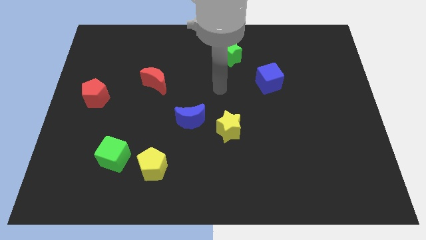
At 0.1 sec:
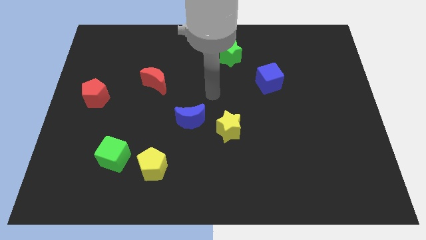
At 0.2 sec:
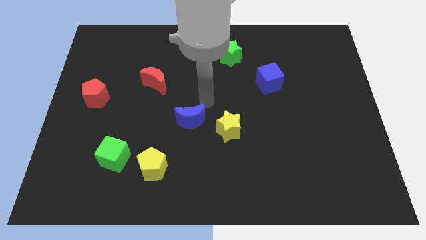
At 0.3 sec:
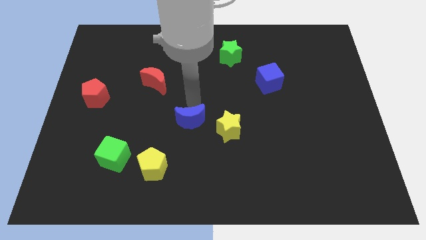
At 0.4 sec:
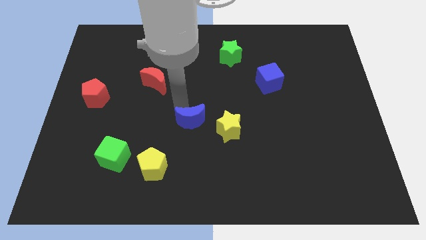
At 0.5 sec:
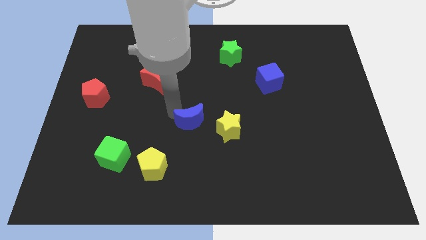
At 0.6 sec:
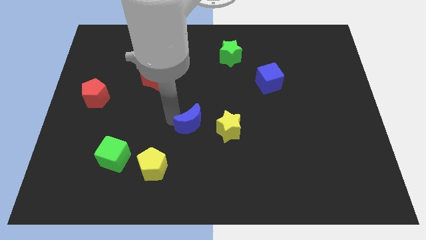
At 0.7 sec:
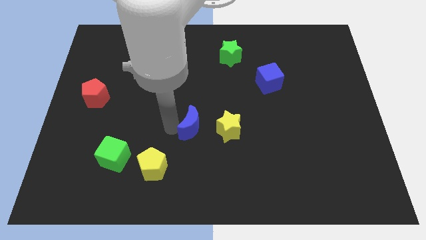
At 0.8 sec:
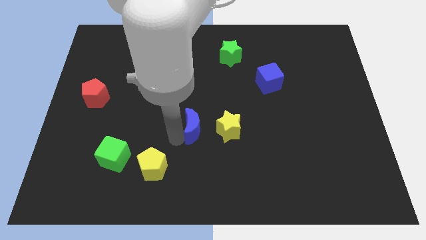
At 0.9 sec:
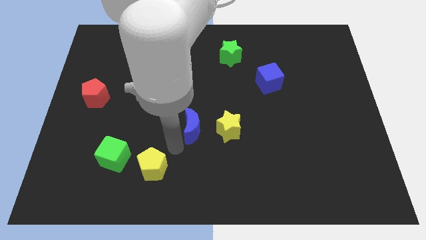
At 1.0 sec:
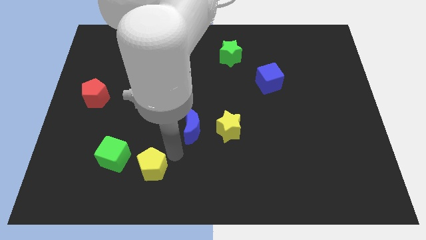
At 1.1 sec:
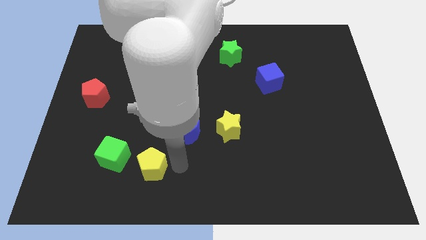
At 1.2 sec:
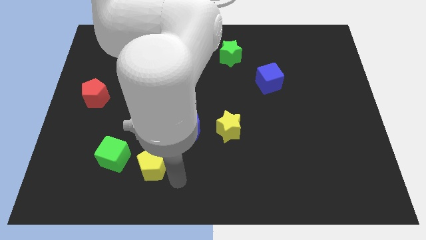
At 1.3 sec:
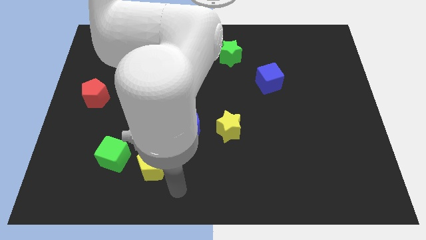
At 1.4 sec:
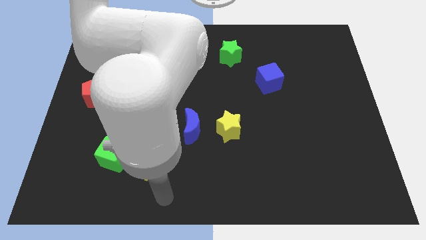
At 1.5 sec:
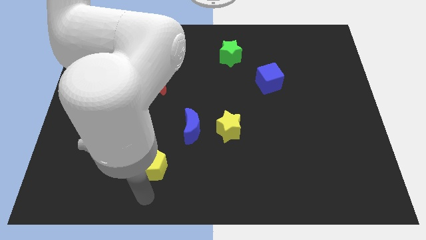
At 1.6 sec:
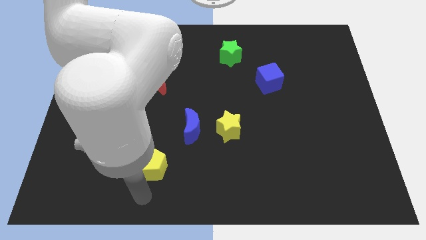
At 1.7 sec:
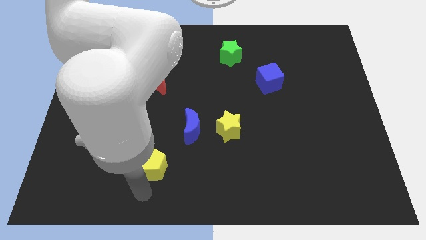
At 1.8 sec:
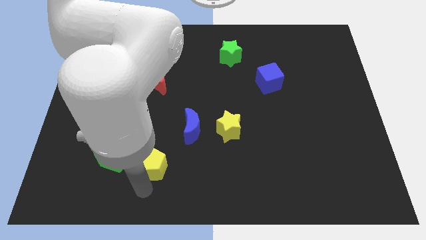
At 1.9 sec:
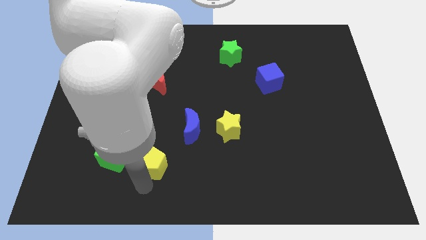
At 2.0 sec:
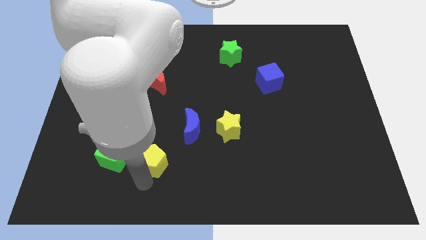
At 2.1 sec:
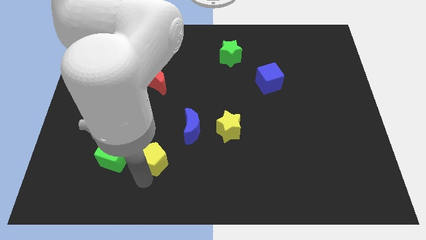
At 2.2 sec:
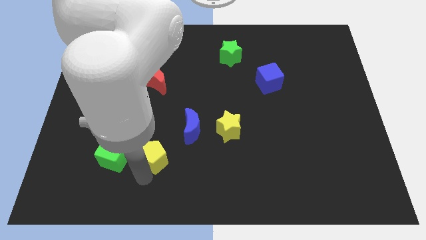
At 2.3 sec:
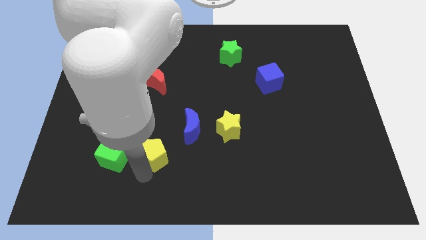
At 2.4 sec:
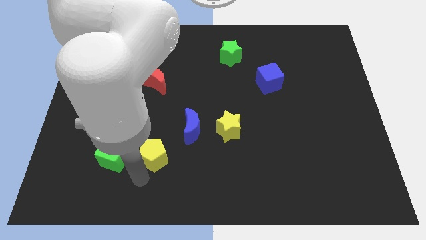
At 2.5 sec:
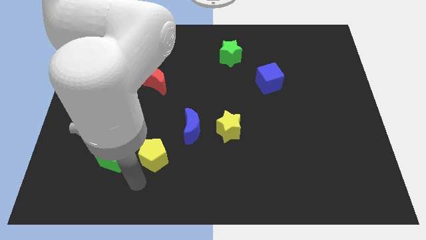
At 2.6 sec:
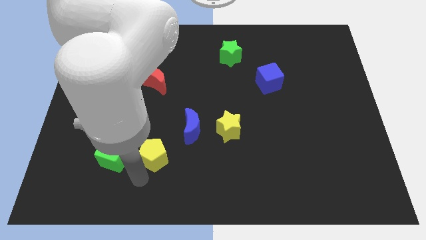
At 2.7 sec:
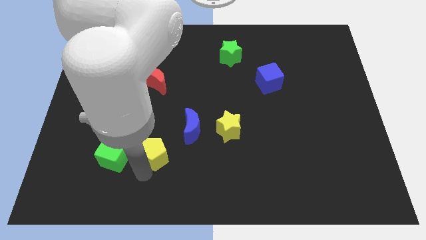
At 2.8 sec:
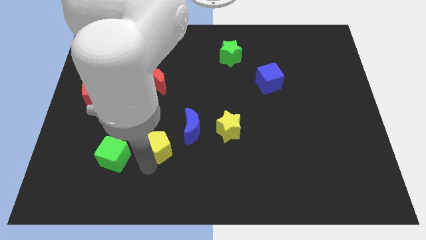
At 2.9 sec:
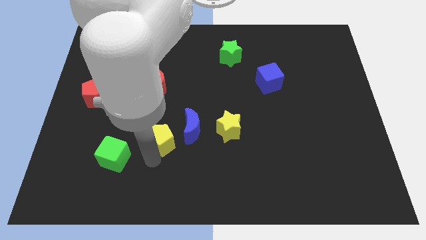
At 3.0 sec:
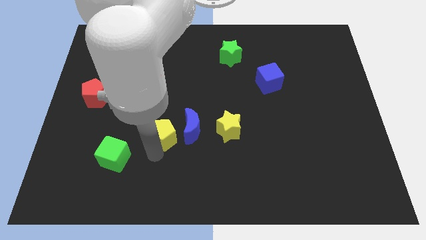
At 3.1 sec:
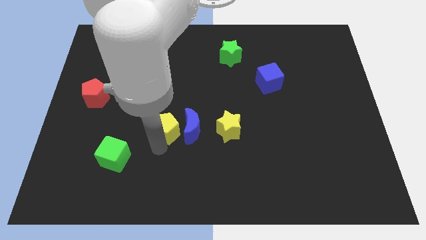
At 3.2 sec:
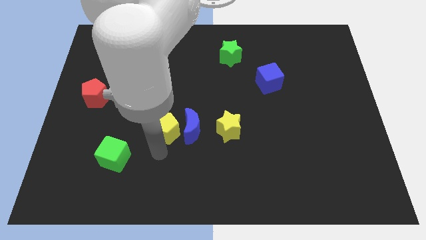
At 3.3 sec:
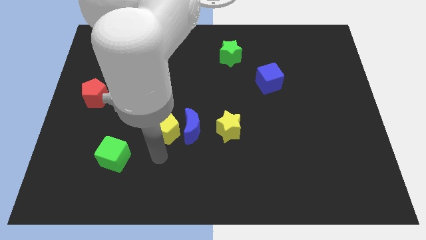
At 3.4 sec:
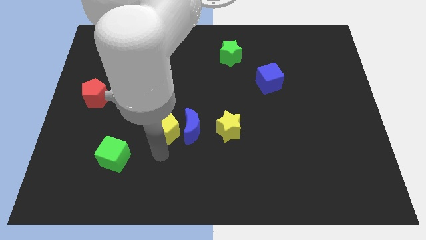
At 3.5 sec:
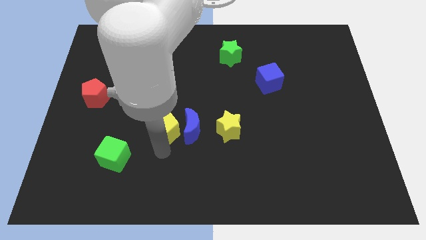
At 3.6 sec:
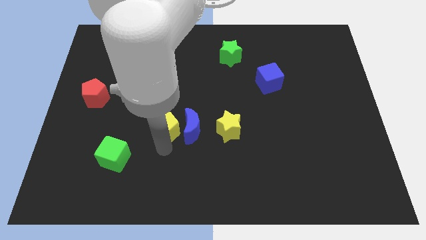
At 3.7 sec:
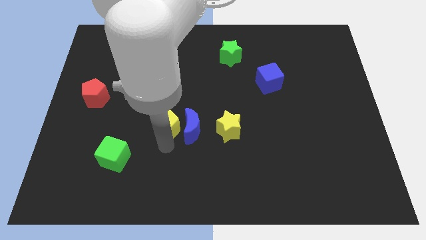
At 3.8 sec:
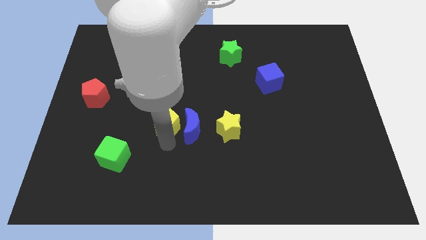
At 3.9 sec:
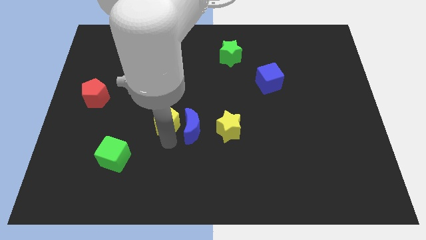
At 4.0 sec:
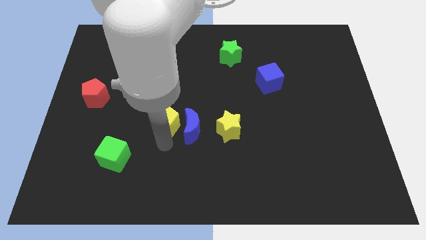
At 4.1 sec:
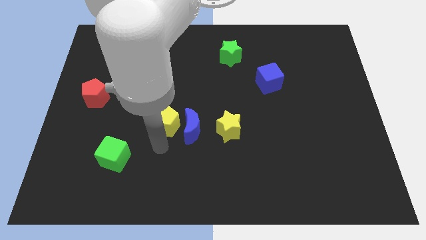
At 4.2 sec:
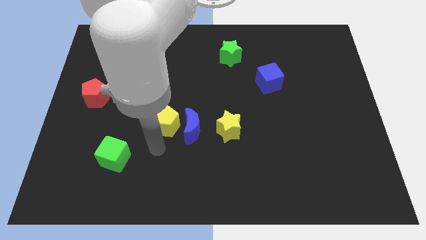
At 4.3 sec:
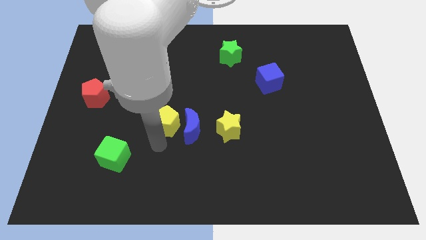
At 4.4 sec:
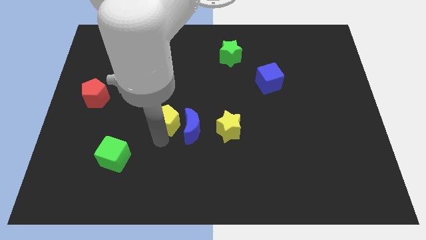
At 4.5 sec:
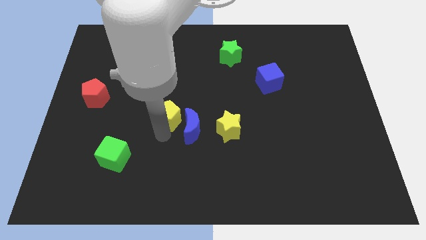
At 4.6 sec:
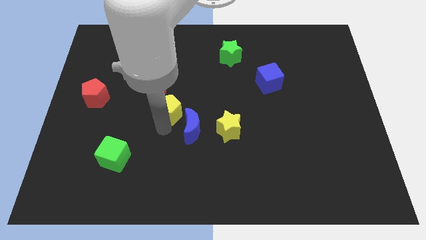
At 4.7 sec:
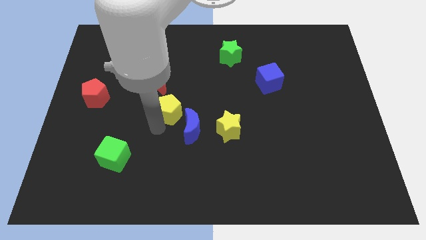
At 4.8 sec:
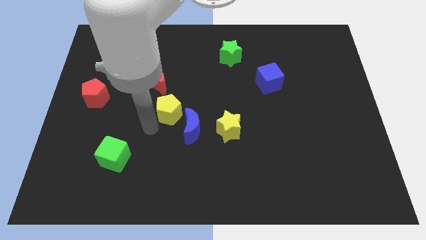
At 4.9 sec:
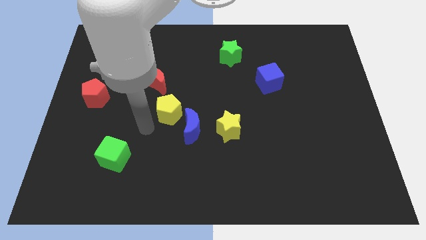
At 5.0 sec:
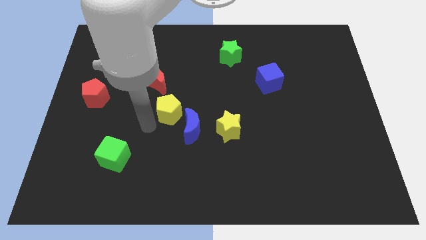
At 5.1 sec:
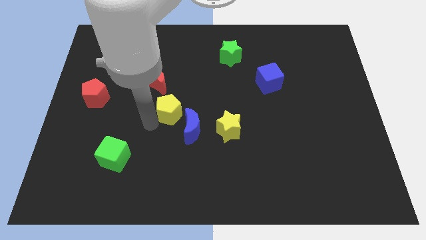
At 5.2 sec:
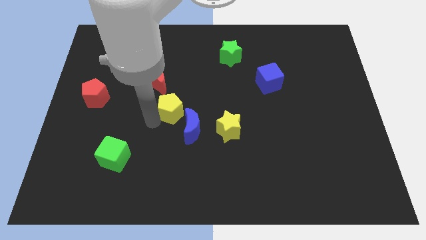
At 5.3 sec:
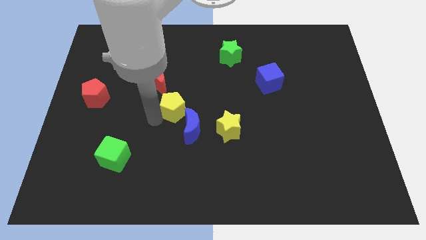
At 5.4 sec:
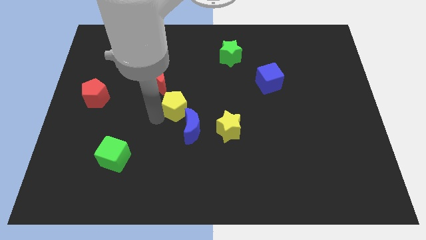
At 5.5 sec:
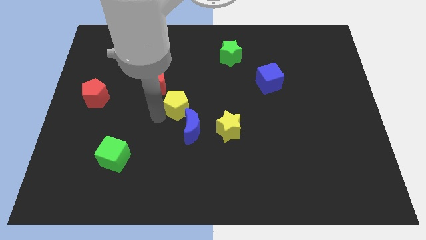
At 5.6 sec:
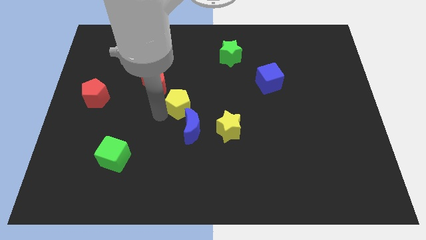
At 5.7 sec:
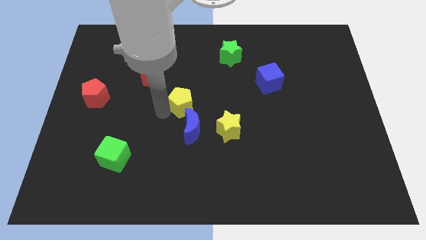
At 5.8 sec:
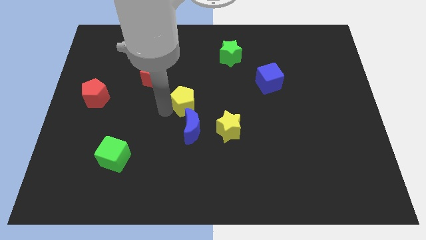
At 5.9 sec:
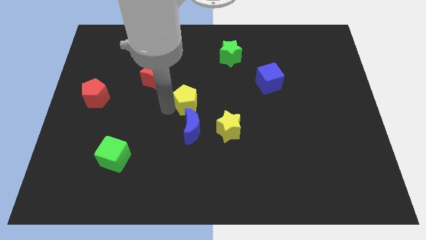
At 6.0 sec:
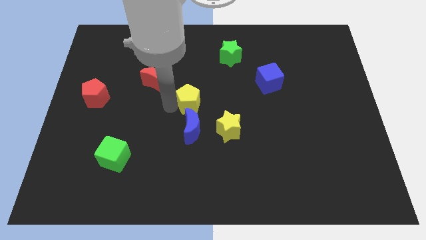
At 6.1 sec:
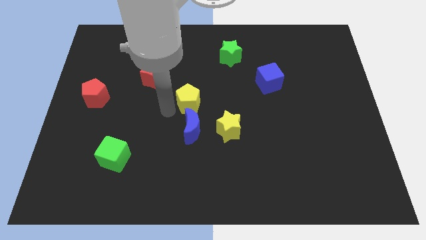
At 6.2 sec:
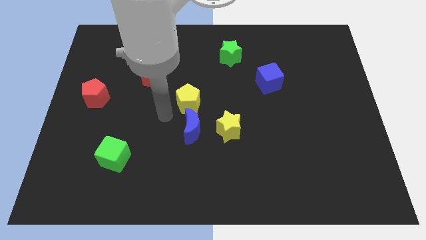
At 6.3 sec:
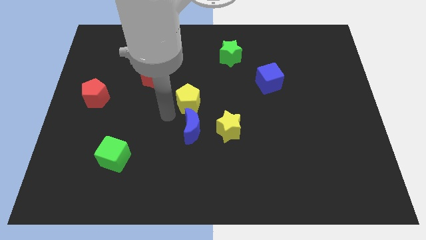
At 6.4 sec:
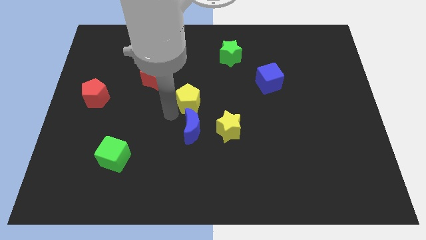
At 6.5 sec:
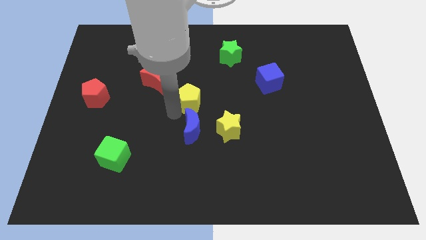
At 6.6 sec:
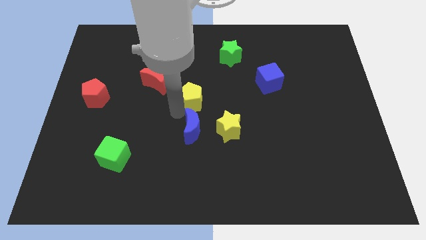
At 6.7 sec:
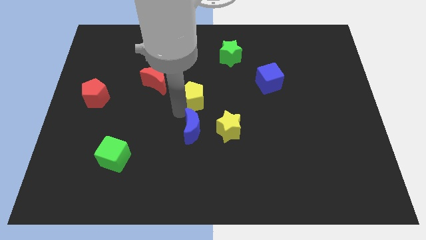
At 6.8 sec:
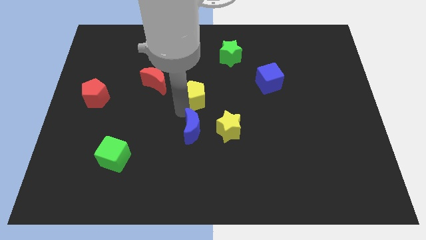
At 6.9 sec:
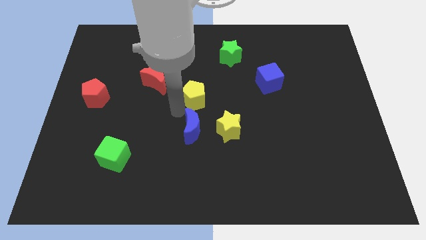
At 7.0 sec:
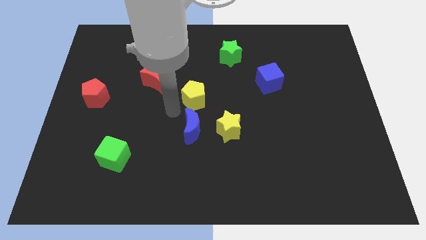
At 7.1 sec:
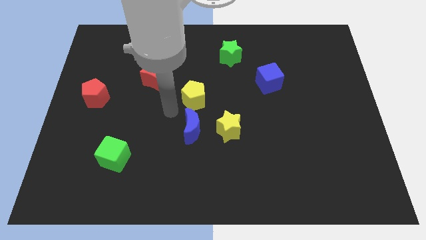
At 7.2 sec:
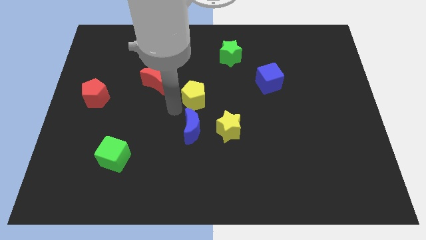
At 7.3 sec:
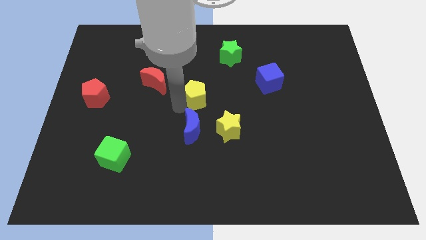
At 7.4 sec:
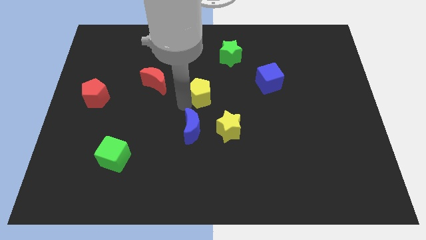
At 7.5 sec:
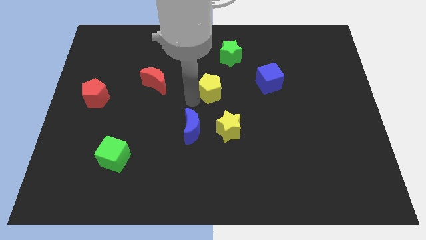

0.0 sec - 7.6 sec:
put the yellow pentagon to the left side of the blue cube
